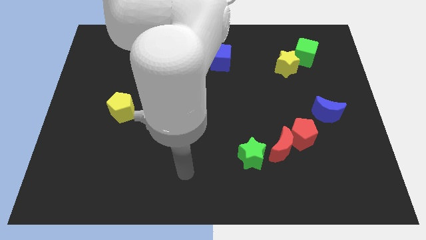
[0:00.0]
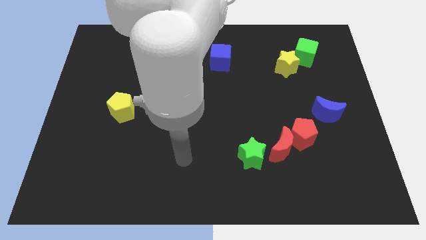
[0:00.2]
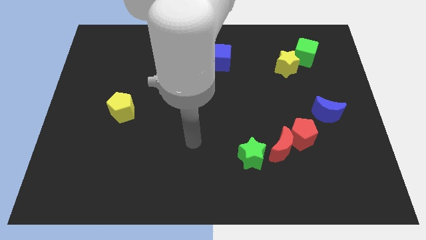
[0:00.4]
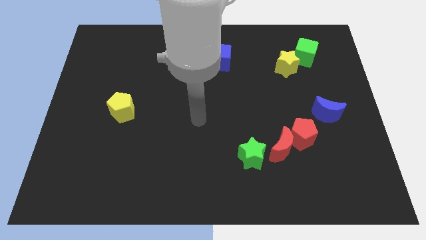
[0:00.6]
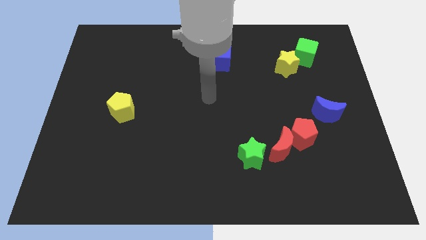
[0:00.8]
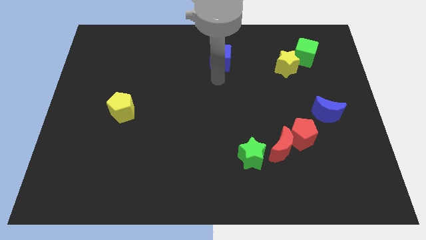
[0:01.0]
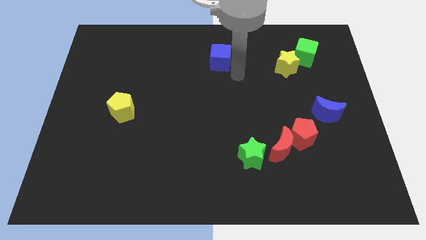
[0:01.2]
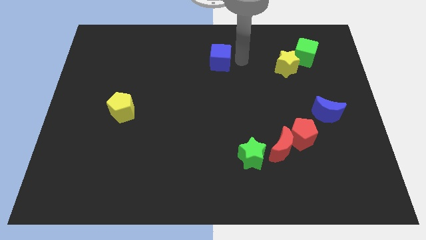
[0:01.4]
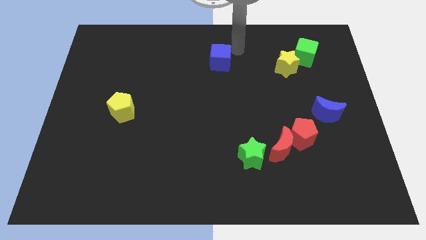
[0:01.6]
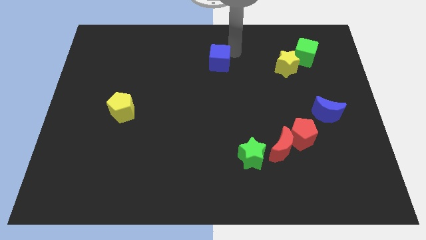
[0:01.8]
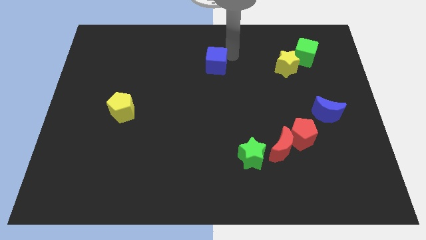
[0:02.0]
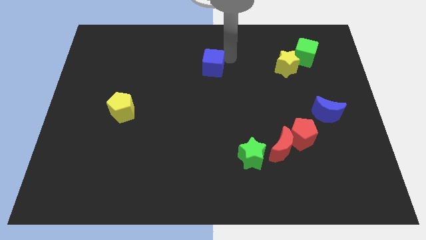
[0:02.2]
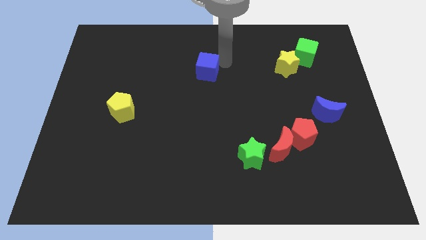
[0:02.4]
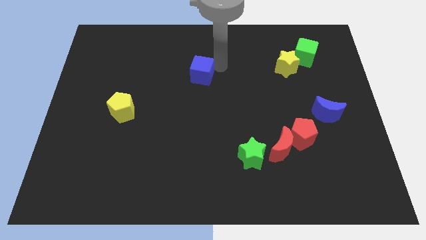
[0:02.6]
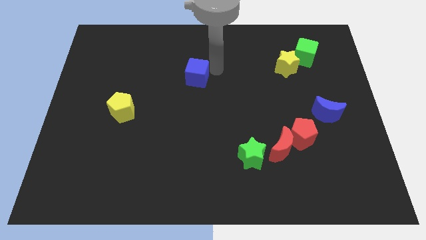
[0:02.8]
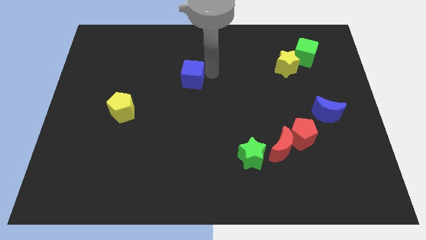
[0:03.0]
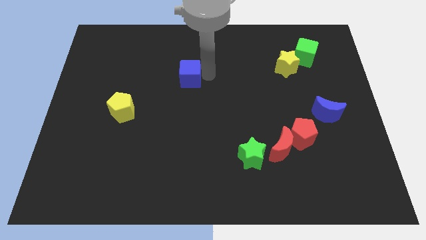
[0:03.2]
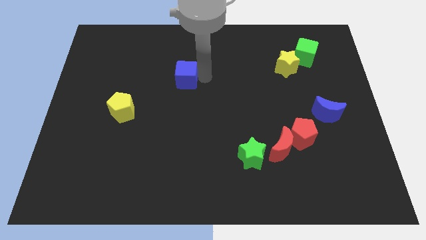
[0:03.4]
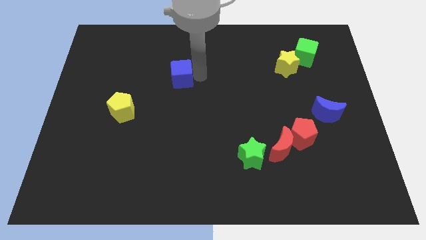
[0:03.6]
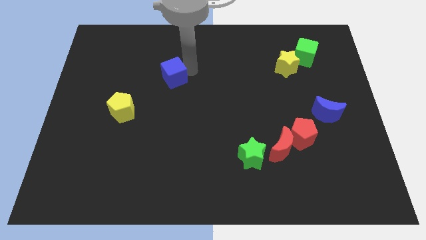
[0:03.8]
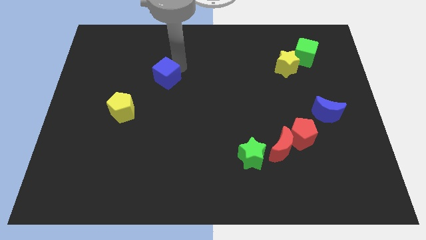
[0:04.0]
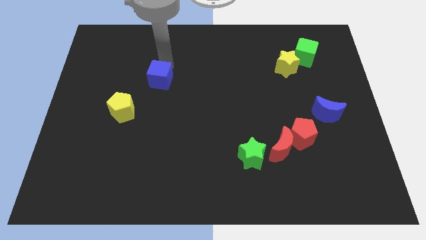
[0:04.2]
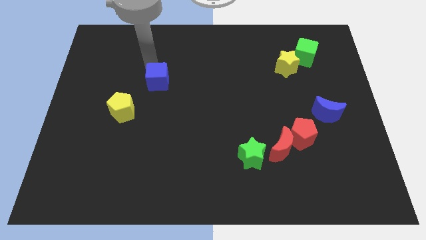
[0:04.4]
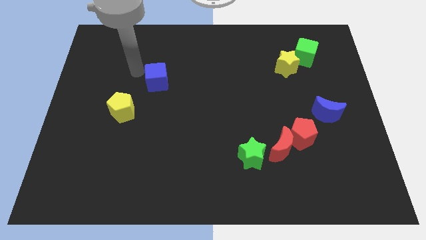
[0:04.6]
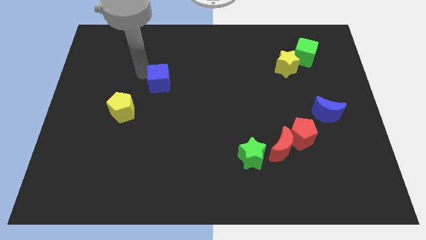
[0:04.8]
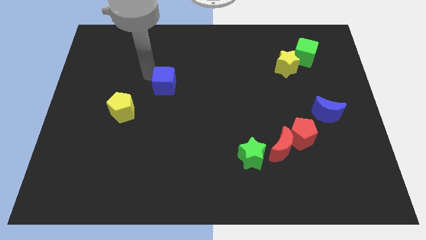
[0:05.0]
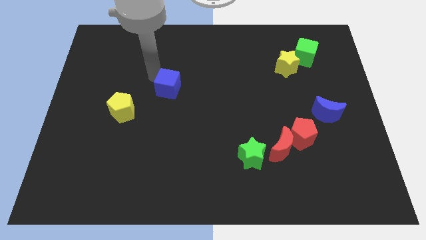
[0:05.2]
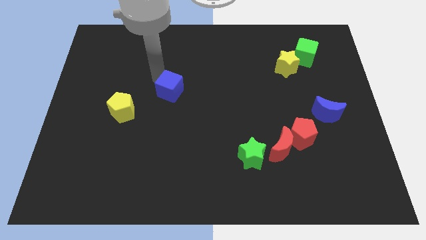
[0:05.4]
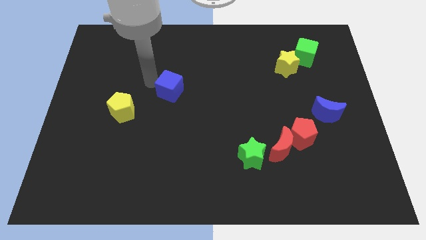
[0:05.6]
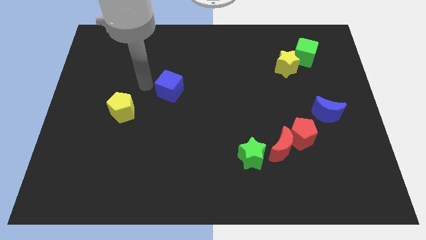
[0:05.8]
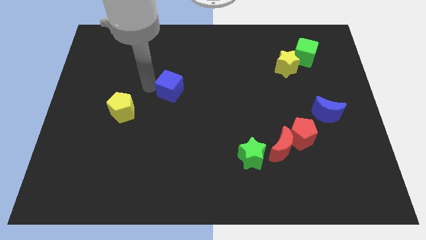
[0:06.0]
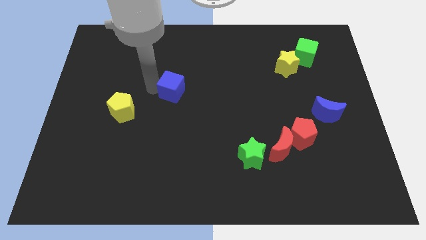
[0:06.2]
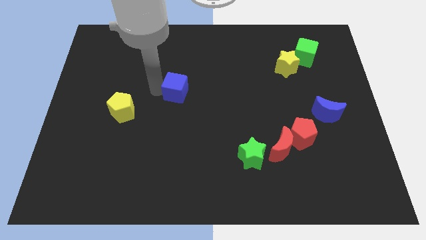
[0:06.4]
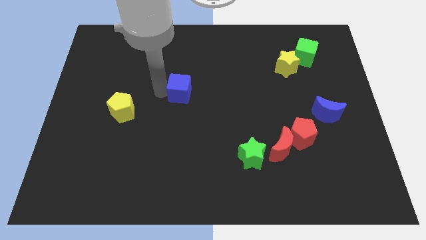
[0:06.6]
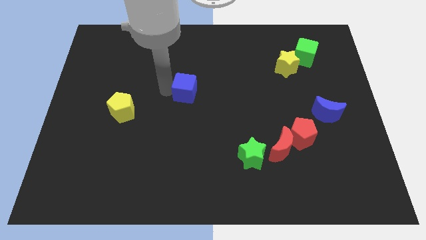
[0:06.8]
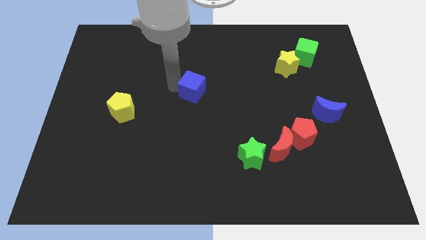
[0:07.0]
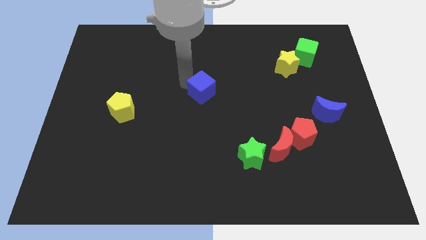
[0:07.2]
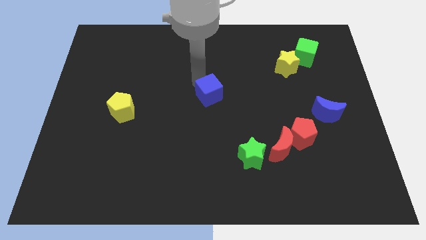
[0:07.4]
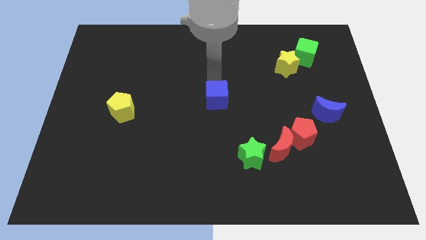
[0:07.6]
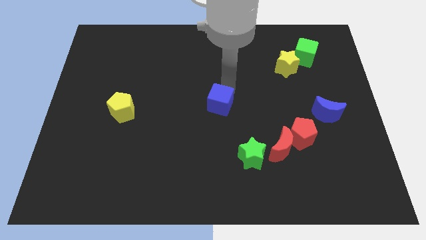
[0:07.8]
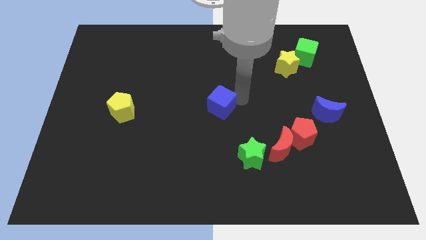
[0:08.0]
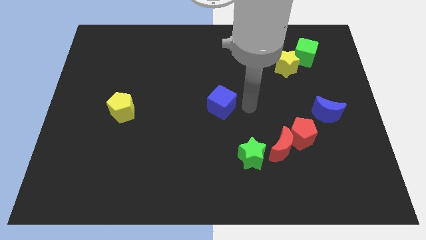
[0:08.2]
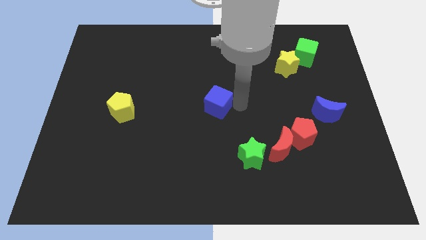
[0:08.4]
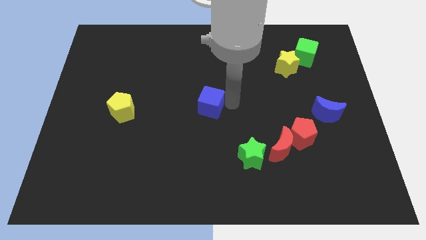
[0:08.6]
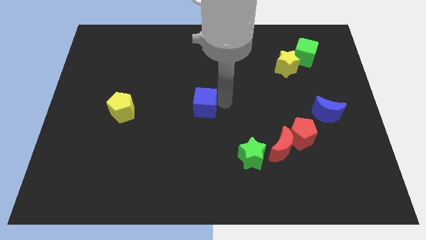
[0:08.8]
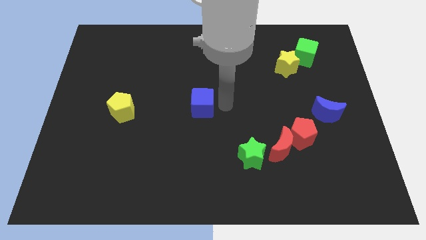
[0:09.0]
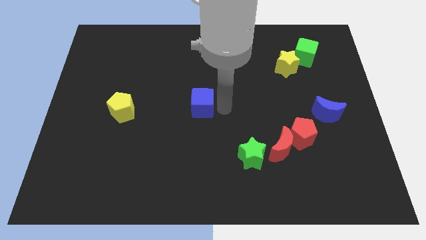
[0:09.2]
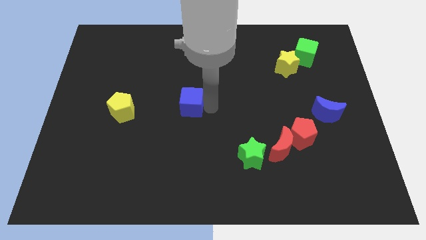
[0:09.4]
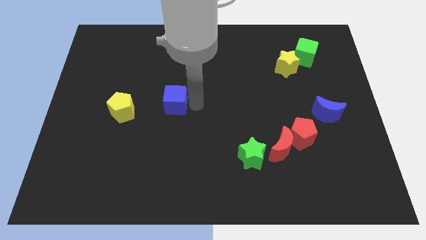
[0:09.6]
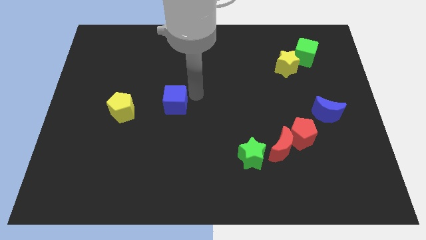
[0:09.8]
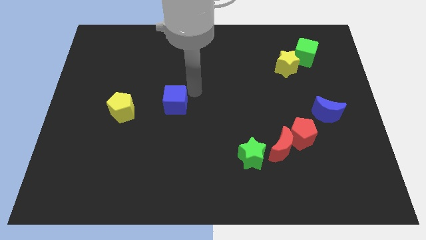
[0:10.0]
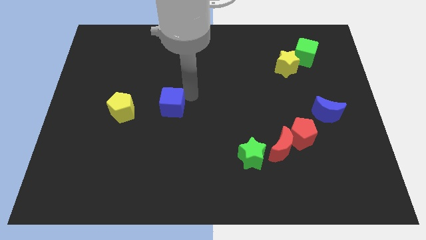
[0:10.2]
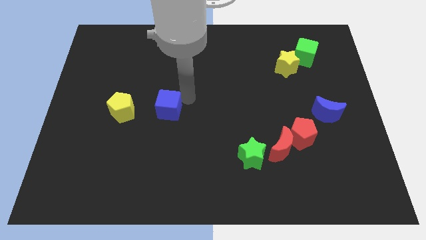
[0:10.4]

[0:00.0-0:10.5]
slide the blue cube down and to the left

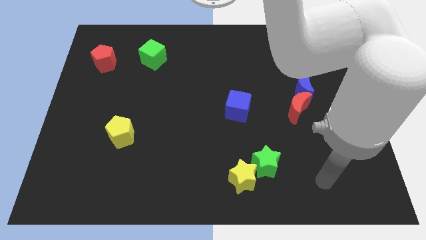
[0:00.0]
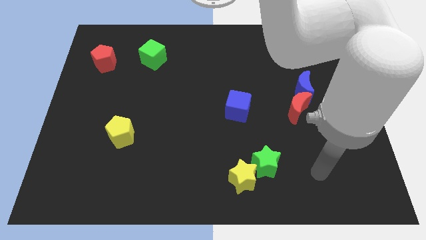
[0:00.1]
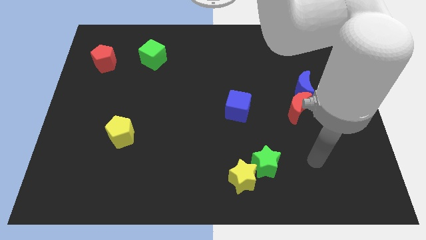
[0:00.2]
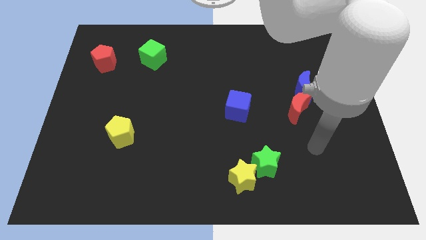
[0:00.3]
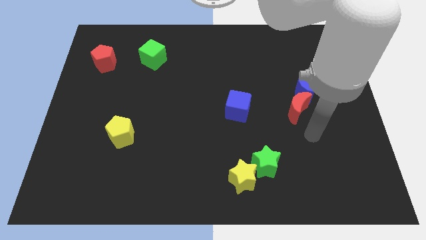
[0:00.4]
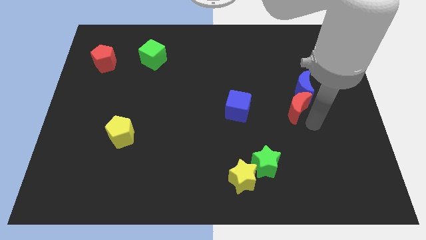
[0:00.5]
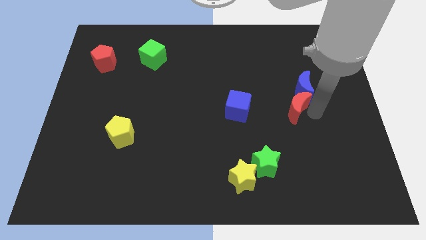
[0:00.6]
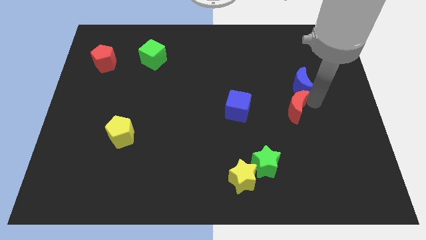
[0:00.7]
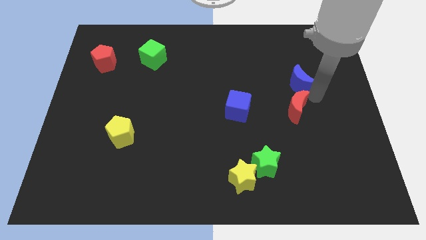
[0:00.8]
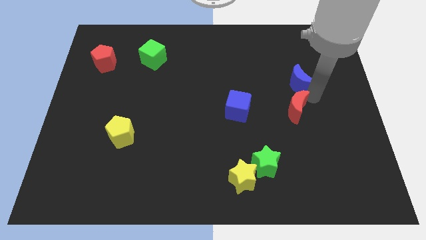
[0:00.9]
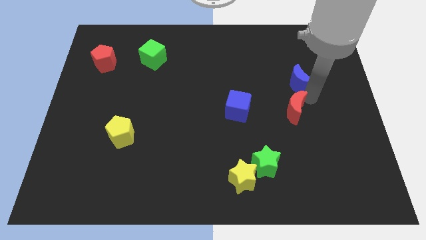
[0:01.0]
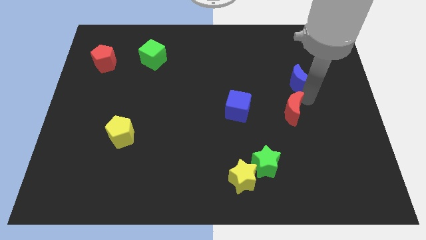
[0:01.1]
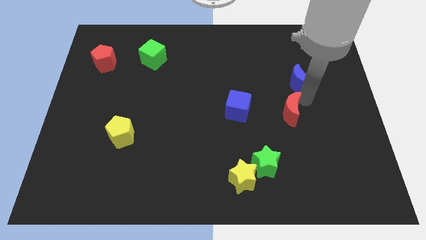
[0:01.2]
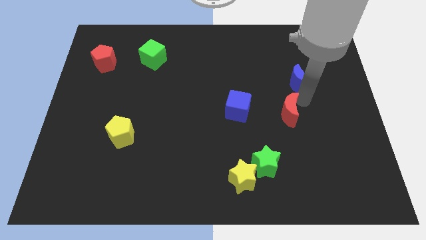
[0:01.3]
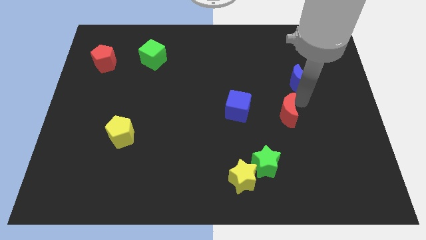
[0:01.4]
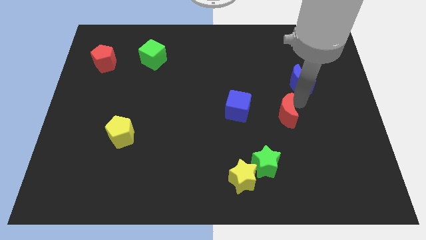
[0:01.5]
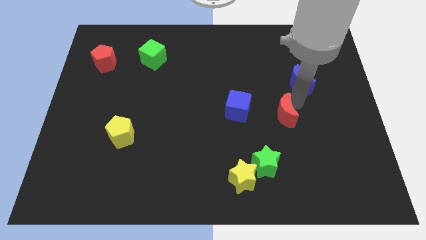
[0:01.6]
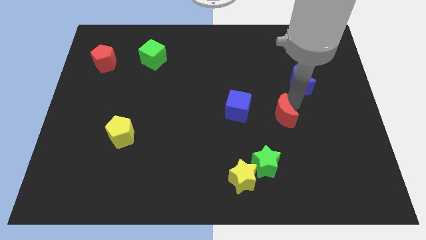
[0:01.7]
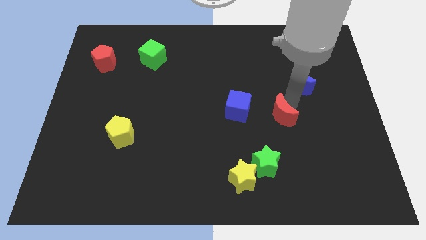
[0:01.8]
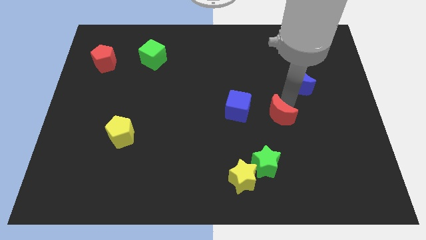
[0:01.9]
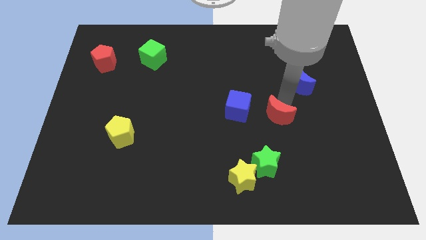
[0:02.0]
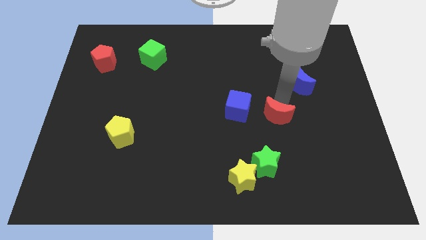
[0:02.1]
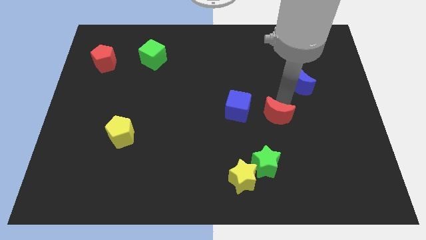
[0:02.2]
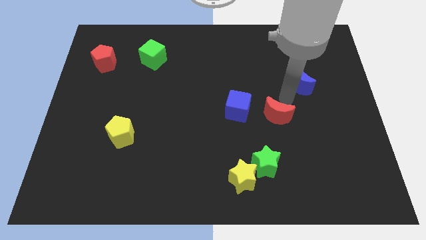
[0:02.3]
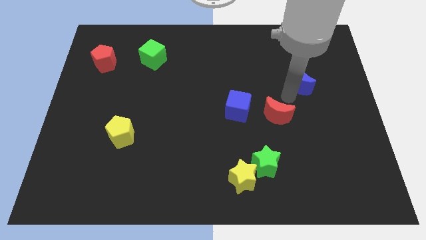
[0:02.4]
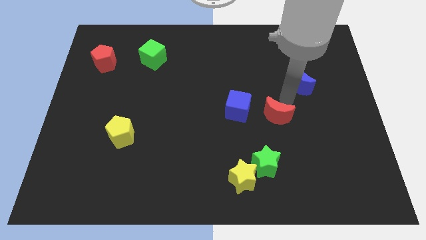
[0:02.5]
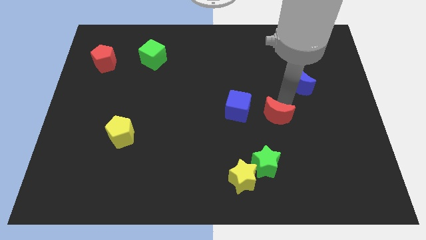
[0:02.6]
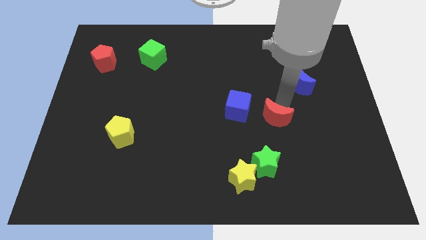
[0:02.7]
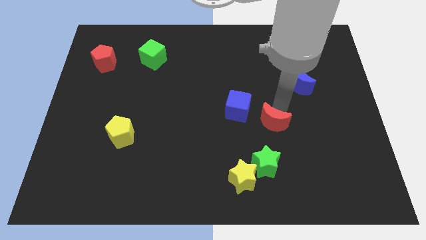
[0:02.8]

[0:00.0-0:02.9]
push the red moon downwards and left diagonally a little bit

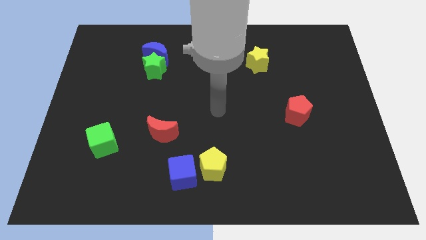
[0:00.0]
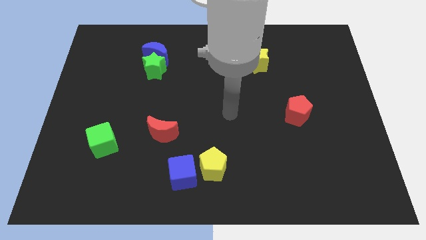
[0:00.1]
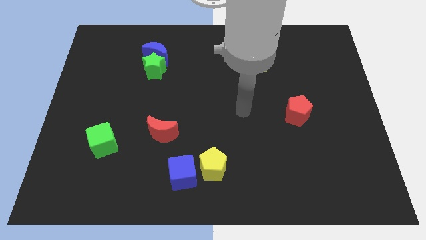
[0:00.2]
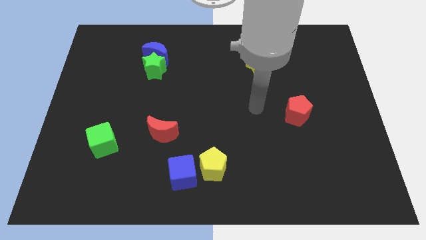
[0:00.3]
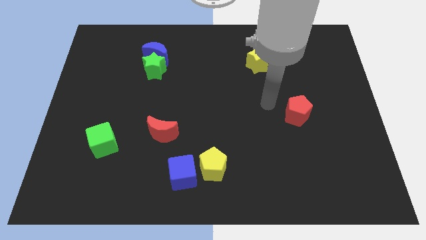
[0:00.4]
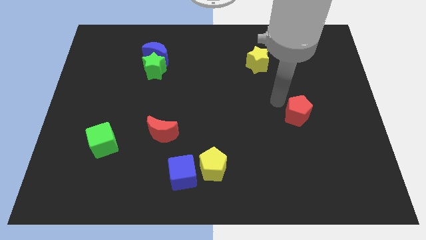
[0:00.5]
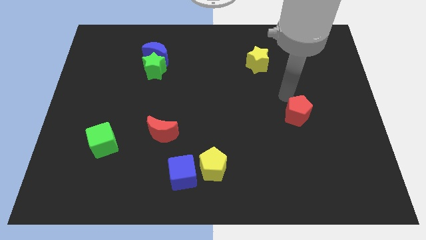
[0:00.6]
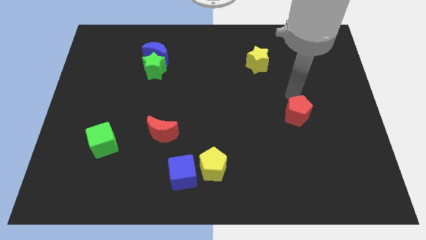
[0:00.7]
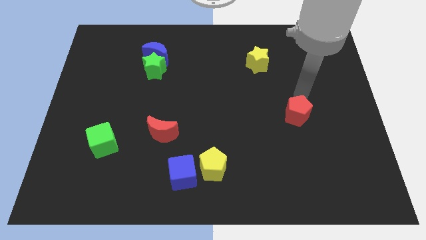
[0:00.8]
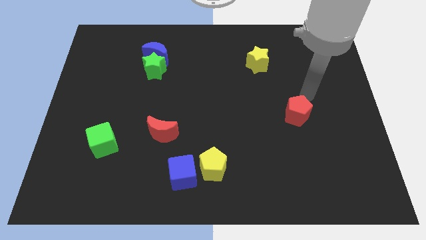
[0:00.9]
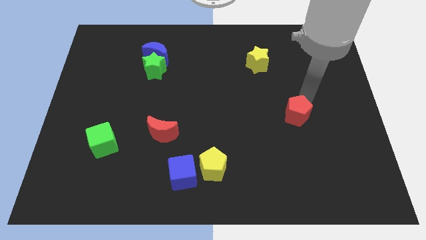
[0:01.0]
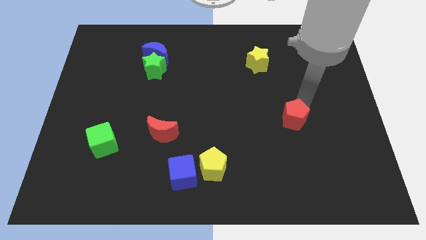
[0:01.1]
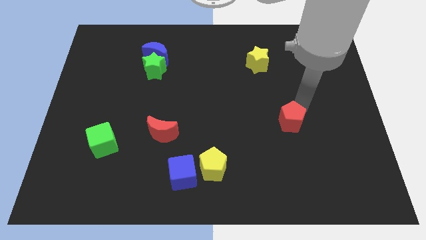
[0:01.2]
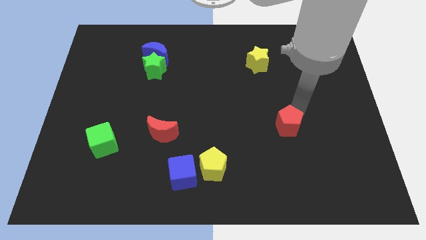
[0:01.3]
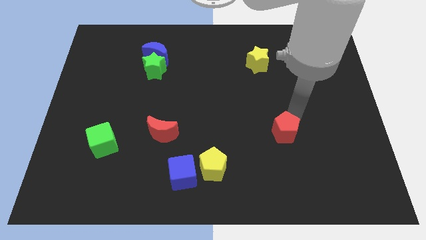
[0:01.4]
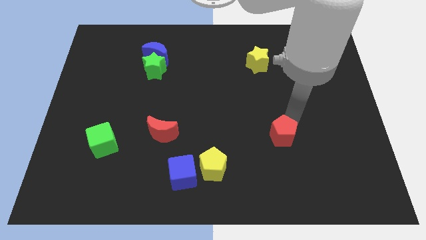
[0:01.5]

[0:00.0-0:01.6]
push the red pentagon slightly downwards and then to the left
